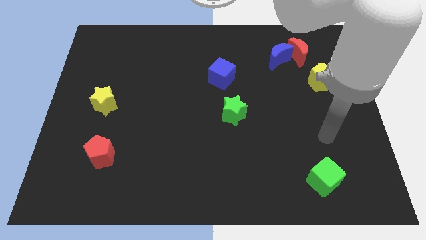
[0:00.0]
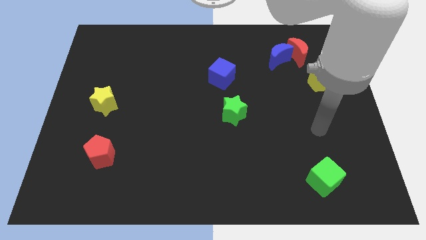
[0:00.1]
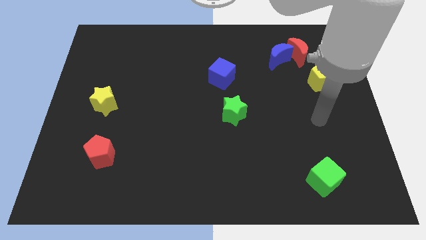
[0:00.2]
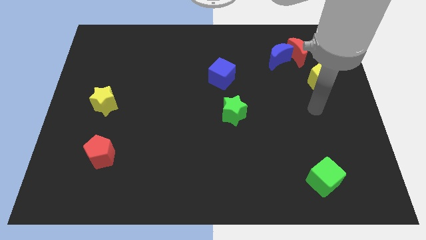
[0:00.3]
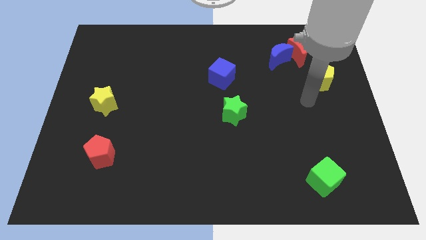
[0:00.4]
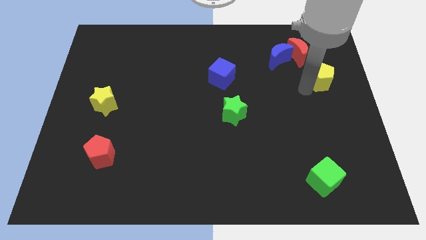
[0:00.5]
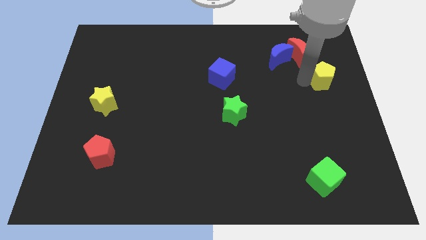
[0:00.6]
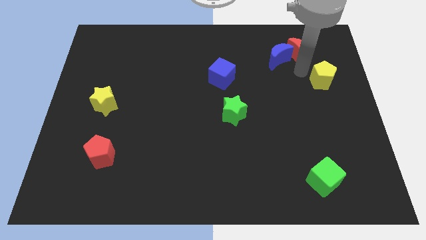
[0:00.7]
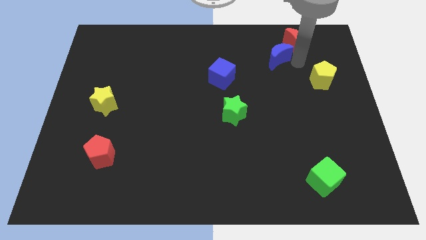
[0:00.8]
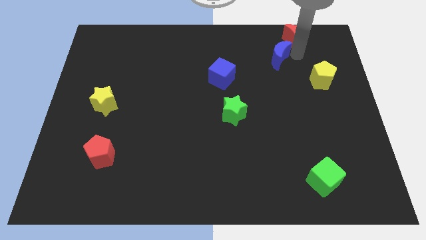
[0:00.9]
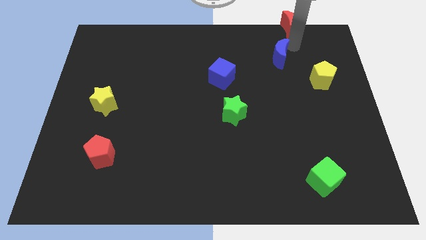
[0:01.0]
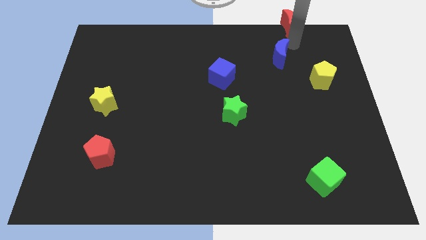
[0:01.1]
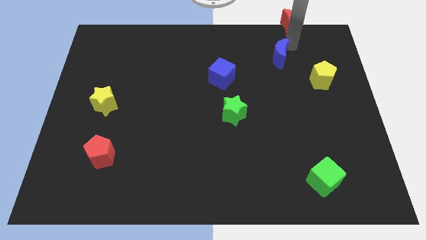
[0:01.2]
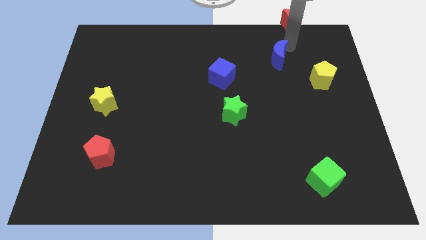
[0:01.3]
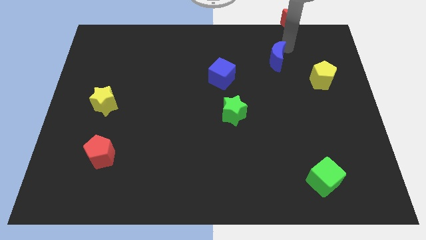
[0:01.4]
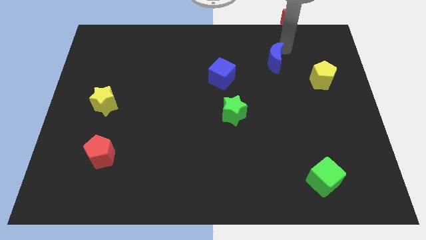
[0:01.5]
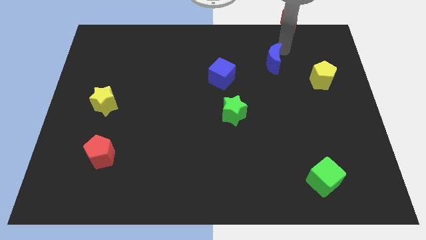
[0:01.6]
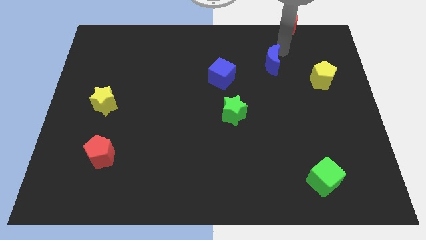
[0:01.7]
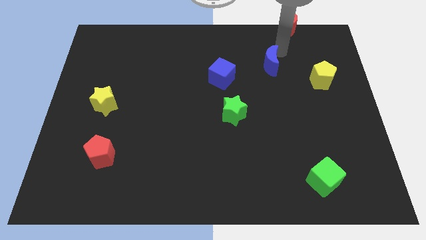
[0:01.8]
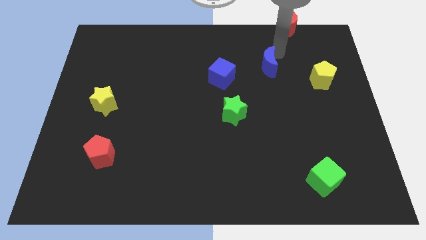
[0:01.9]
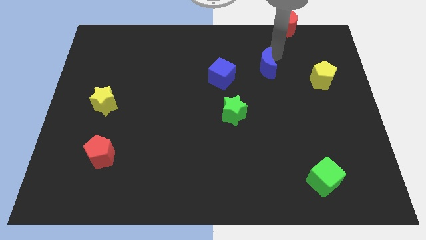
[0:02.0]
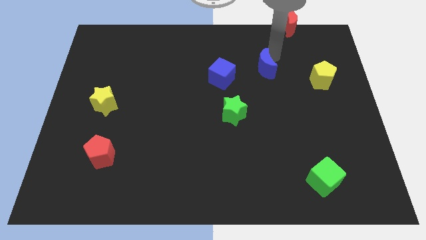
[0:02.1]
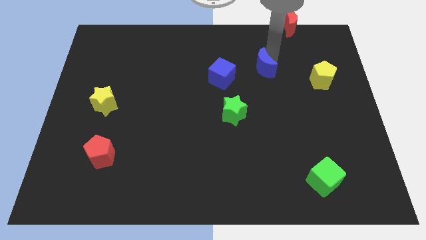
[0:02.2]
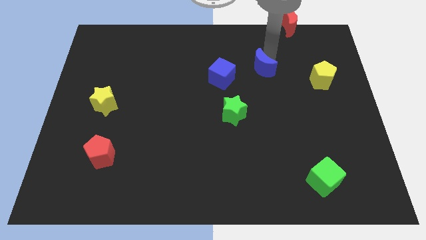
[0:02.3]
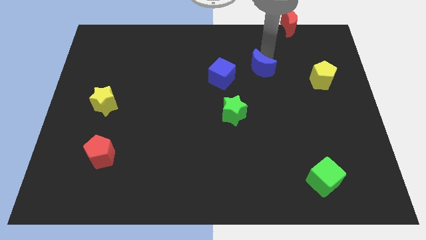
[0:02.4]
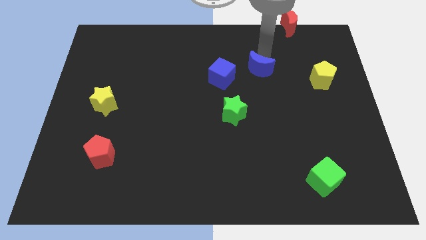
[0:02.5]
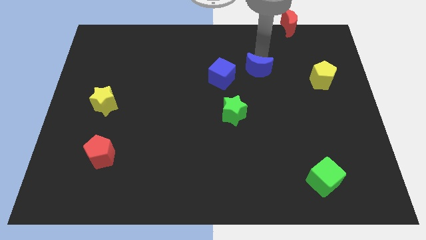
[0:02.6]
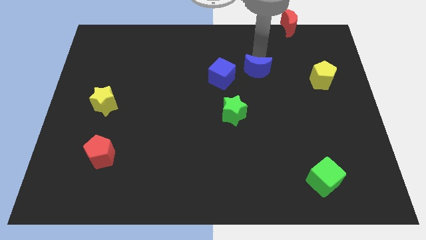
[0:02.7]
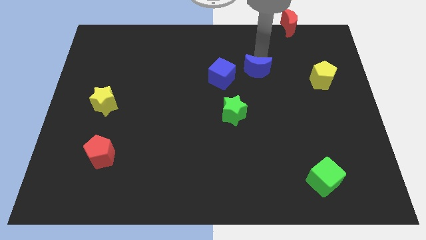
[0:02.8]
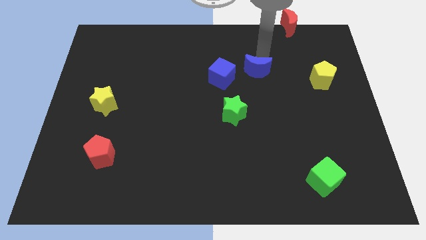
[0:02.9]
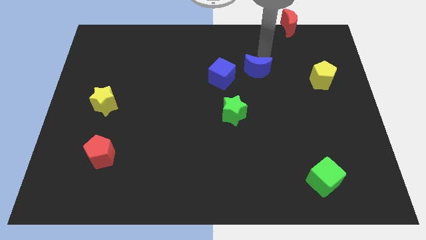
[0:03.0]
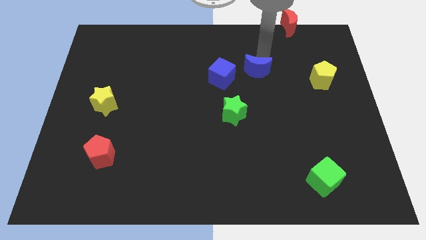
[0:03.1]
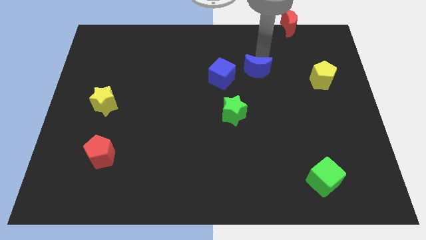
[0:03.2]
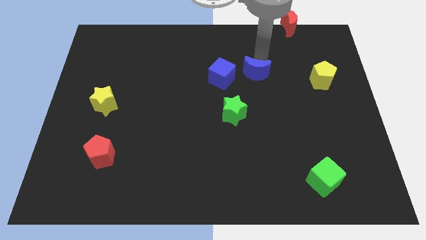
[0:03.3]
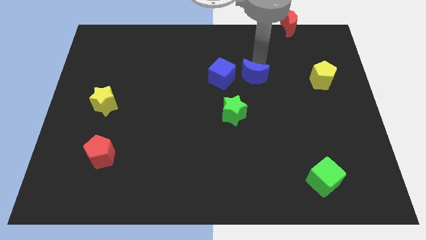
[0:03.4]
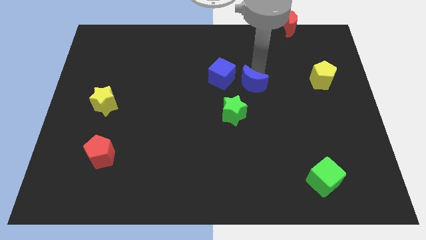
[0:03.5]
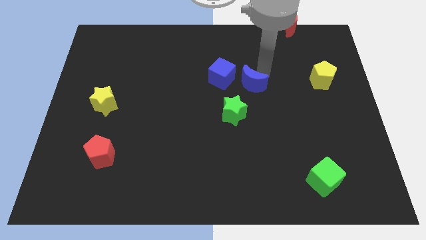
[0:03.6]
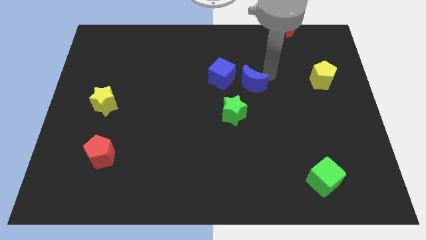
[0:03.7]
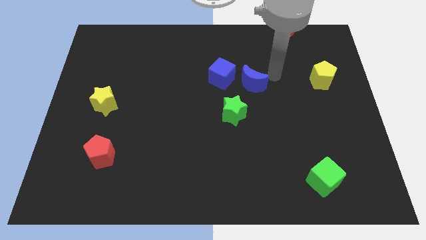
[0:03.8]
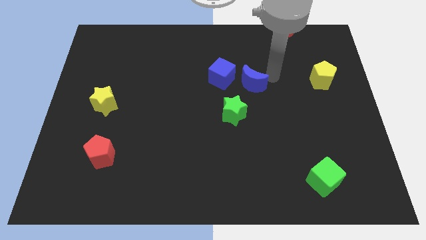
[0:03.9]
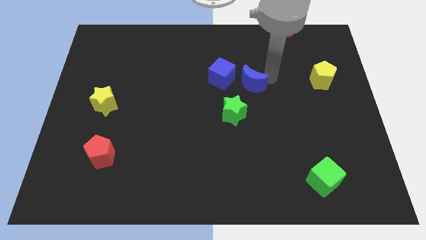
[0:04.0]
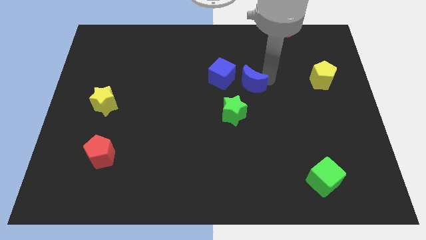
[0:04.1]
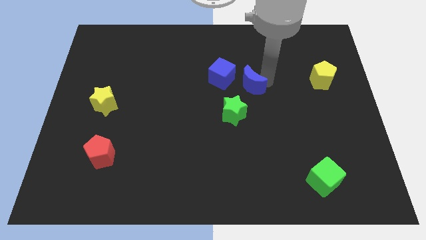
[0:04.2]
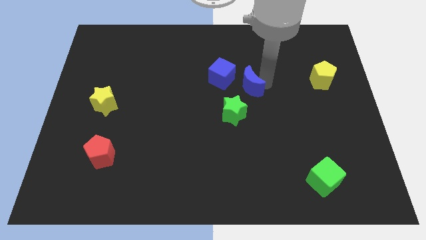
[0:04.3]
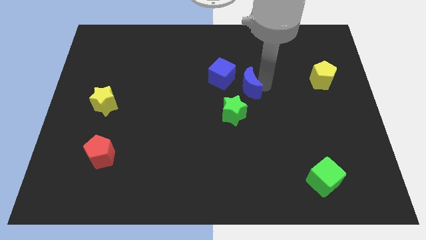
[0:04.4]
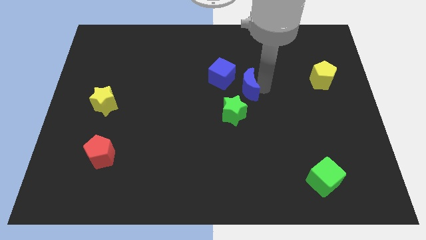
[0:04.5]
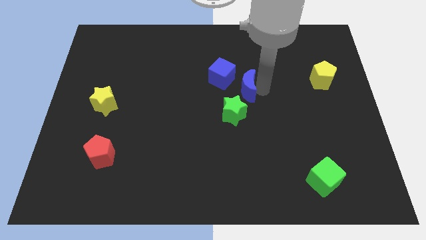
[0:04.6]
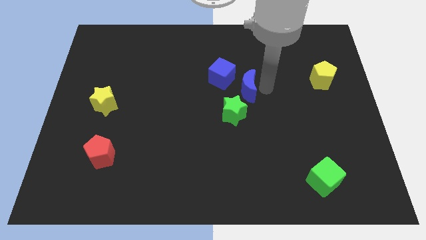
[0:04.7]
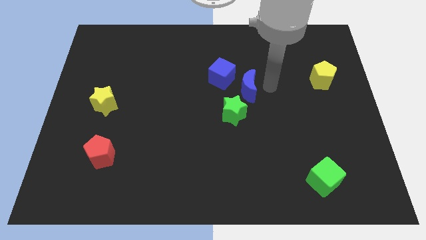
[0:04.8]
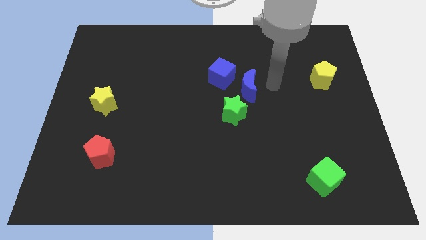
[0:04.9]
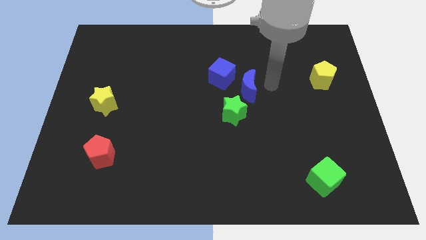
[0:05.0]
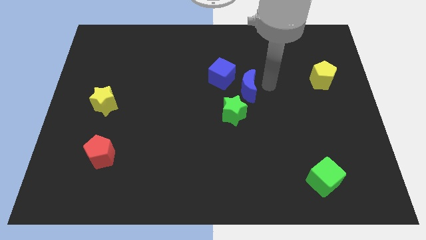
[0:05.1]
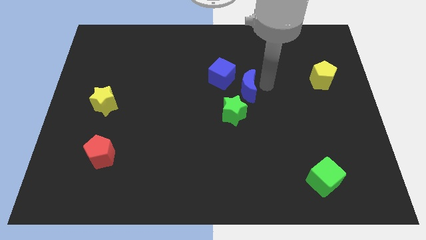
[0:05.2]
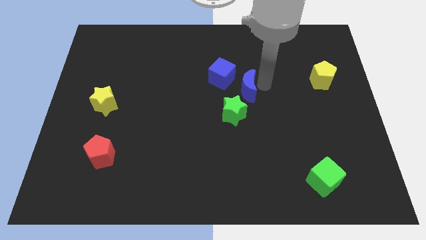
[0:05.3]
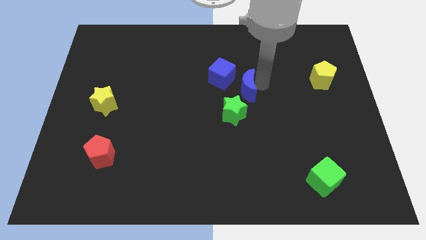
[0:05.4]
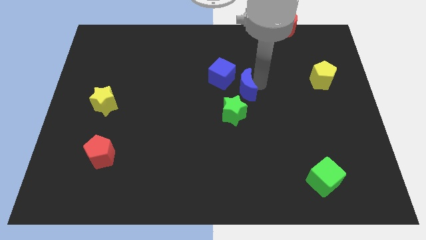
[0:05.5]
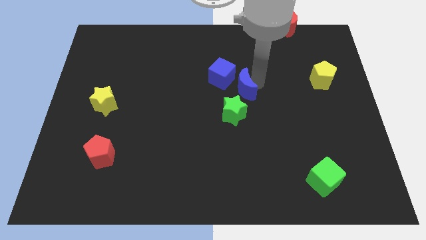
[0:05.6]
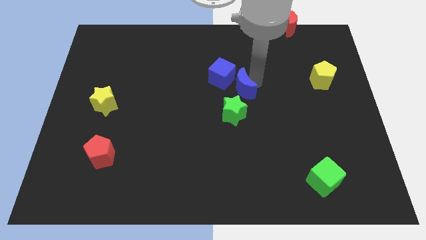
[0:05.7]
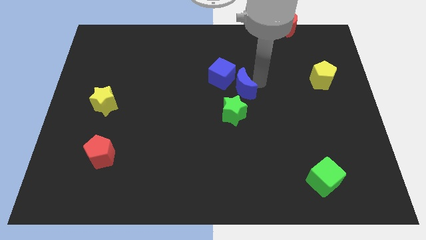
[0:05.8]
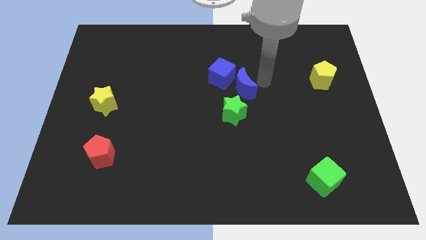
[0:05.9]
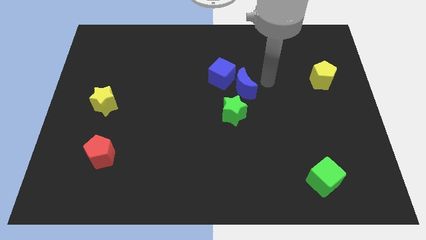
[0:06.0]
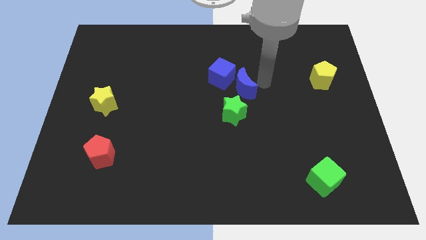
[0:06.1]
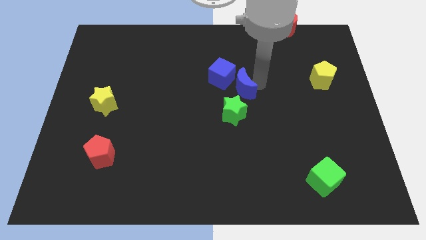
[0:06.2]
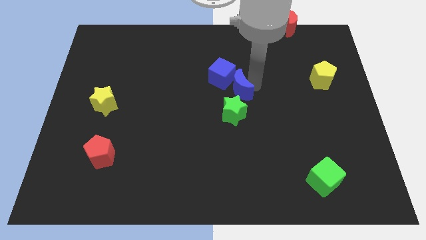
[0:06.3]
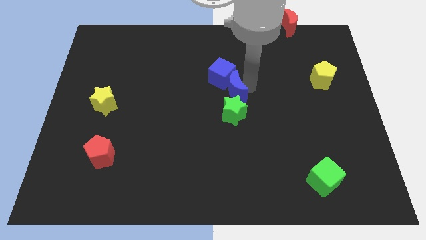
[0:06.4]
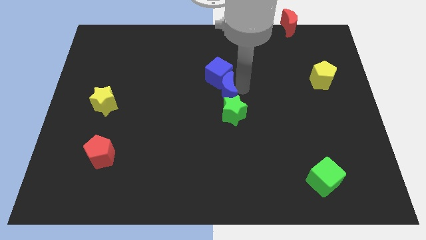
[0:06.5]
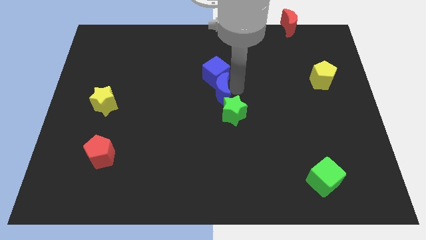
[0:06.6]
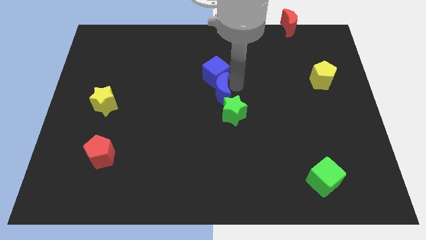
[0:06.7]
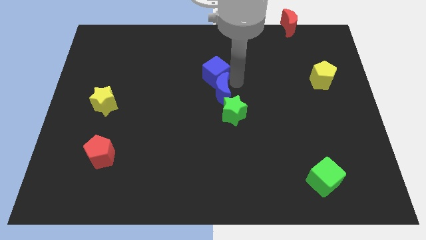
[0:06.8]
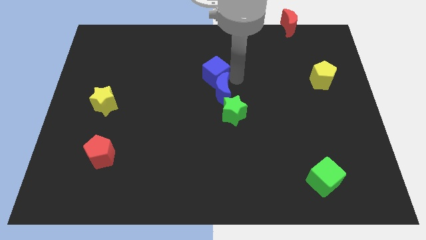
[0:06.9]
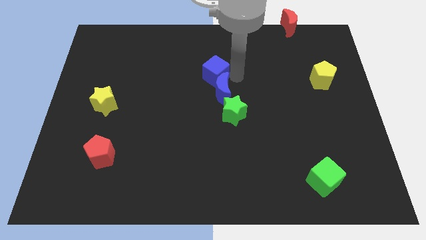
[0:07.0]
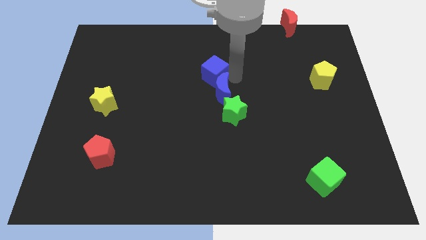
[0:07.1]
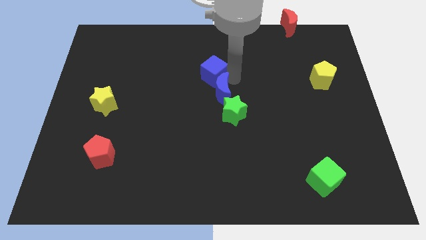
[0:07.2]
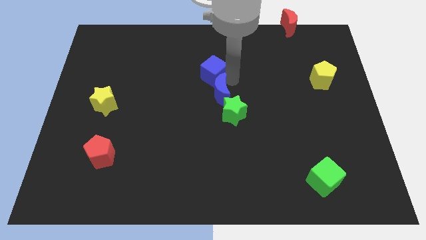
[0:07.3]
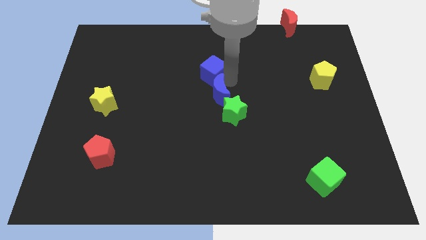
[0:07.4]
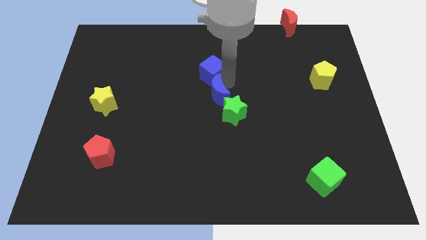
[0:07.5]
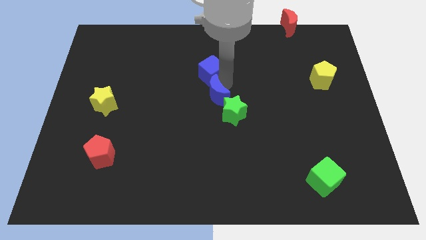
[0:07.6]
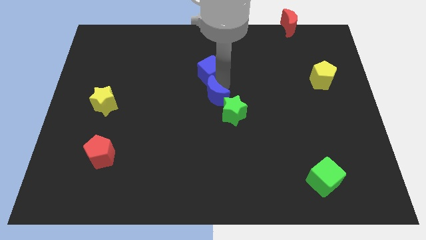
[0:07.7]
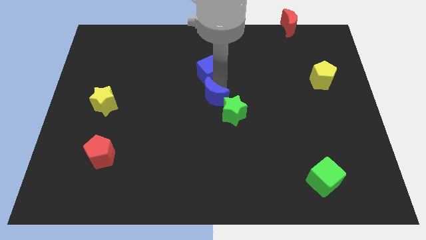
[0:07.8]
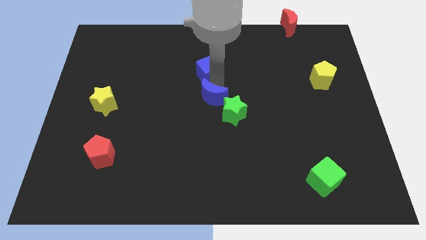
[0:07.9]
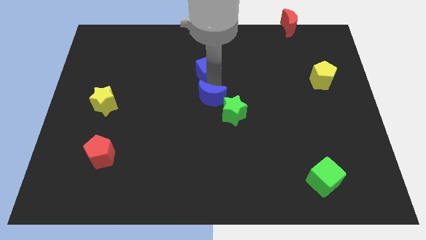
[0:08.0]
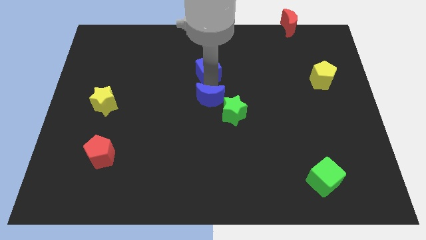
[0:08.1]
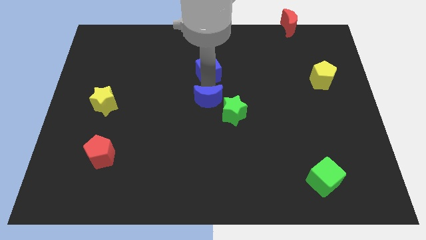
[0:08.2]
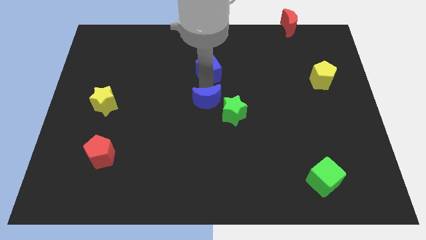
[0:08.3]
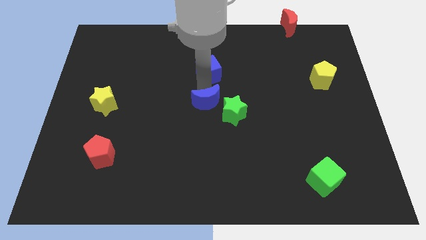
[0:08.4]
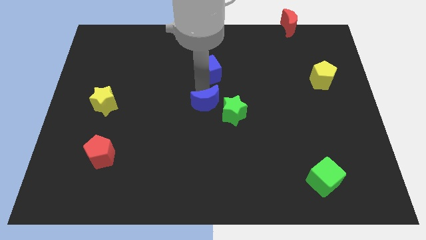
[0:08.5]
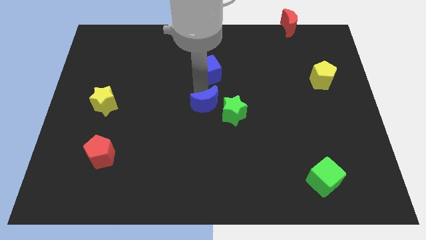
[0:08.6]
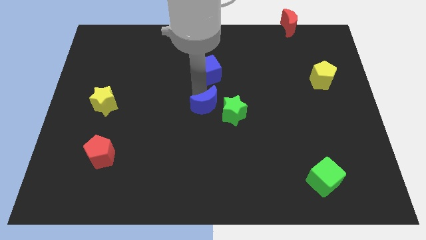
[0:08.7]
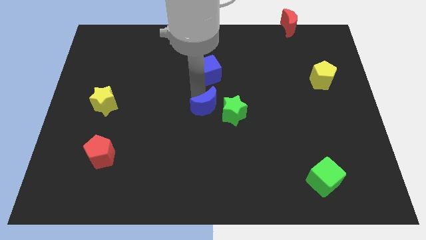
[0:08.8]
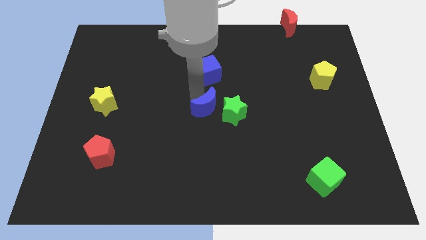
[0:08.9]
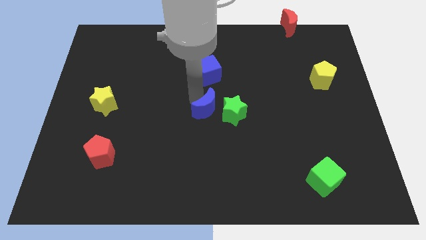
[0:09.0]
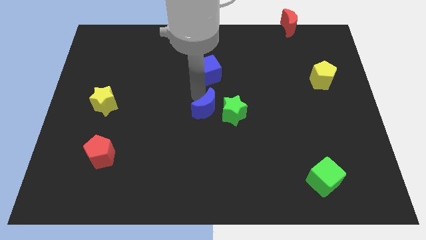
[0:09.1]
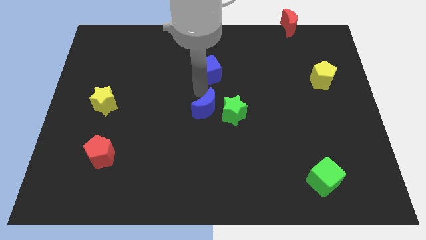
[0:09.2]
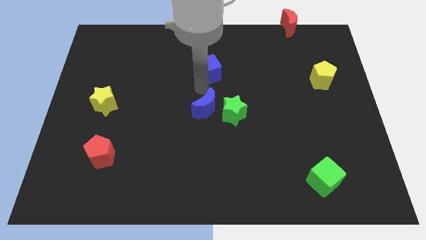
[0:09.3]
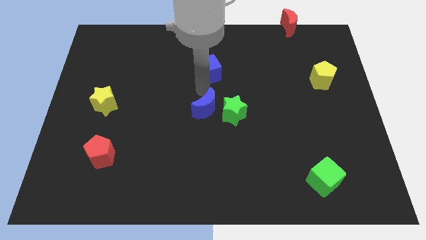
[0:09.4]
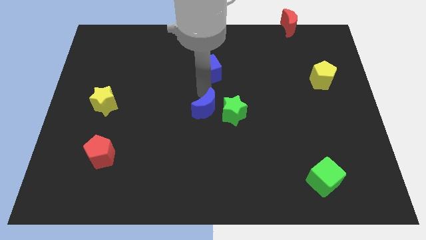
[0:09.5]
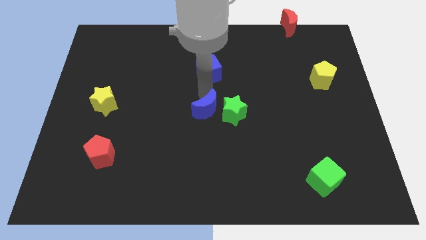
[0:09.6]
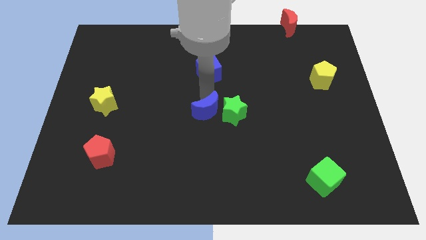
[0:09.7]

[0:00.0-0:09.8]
slide the blue moon diagonally down and to the left of the green star
